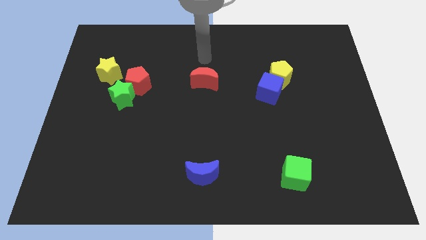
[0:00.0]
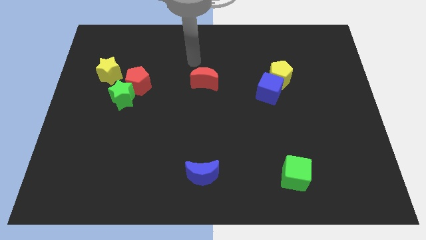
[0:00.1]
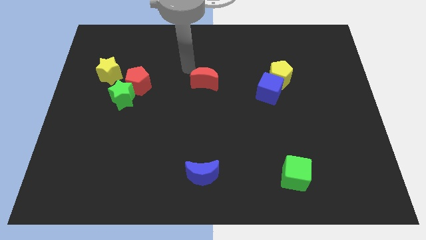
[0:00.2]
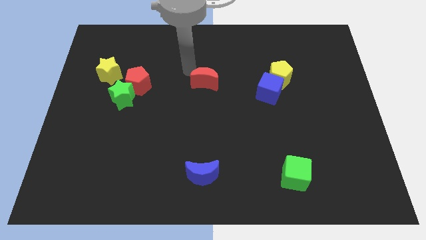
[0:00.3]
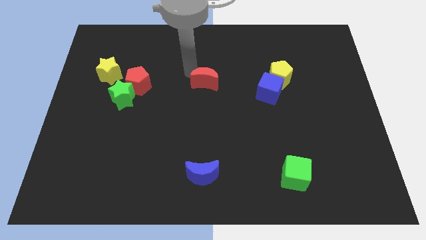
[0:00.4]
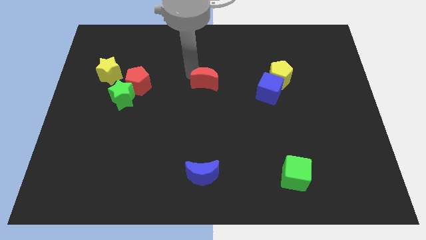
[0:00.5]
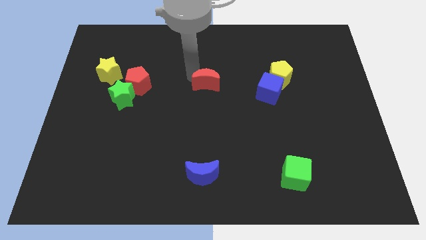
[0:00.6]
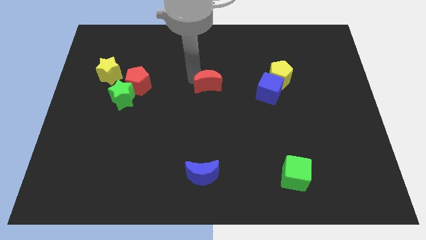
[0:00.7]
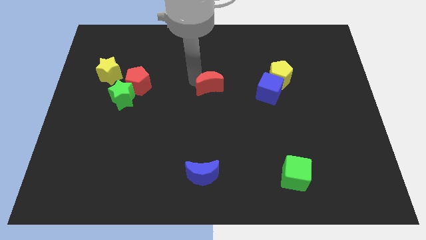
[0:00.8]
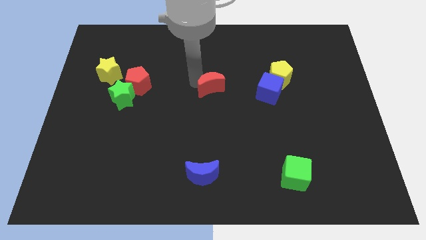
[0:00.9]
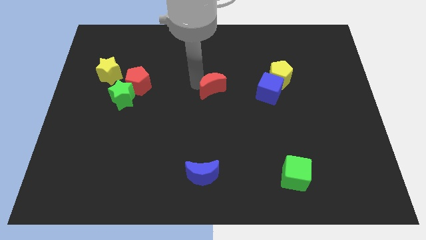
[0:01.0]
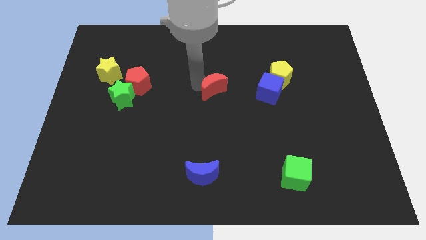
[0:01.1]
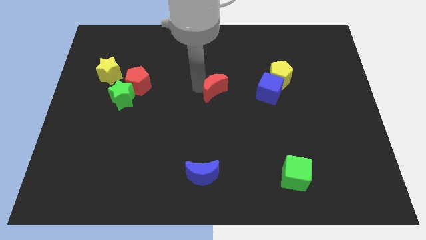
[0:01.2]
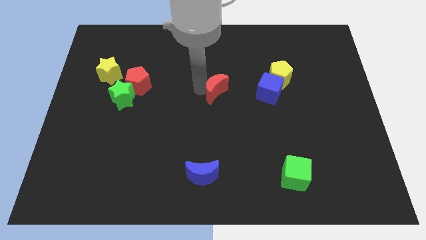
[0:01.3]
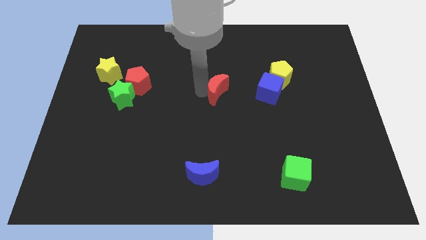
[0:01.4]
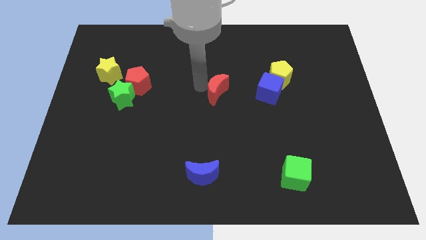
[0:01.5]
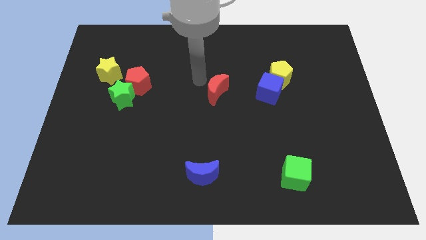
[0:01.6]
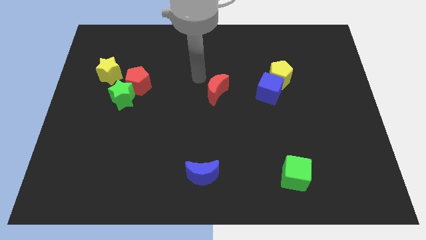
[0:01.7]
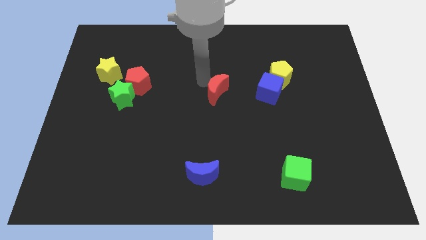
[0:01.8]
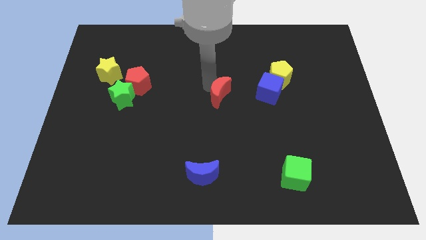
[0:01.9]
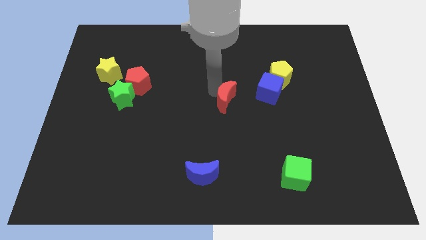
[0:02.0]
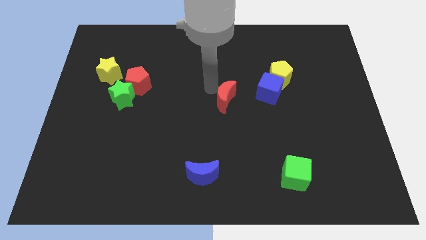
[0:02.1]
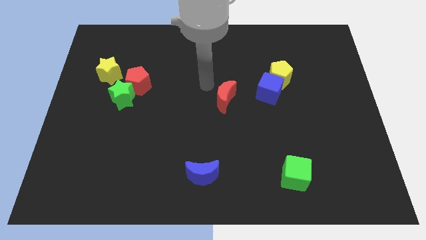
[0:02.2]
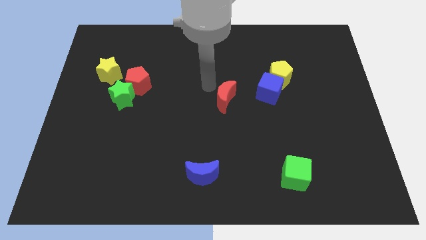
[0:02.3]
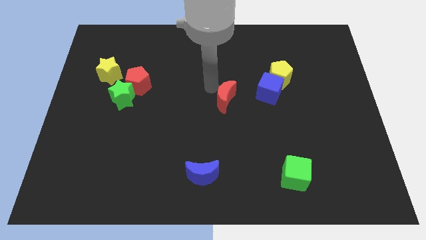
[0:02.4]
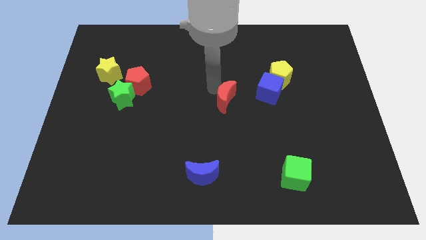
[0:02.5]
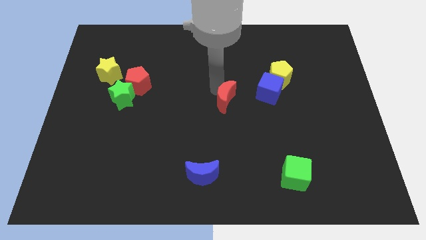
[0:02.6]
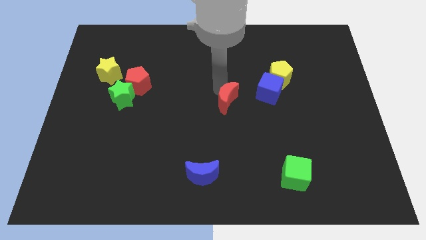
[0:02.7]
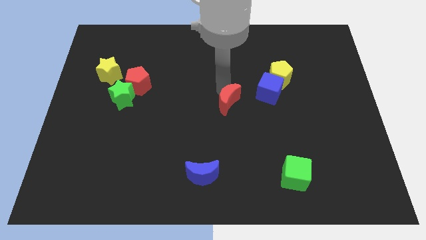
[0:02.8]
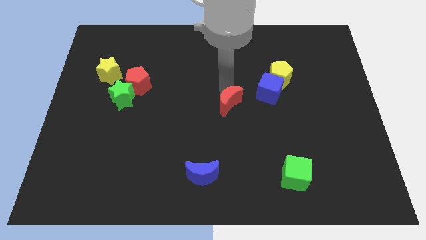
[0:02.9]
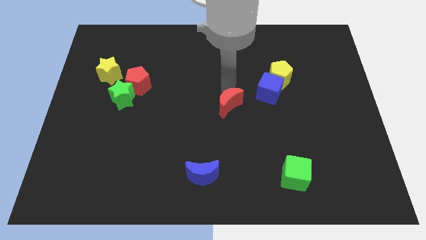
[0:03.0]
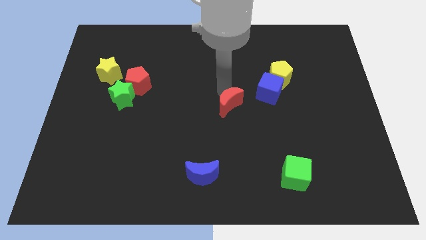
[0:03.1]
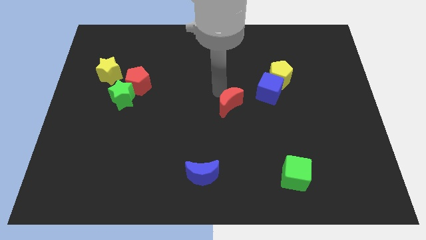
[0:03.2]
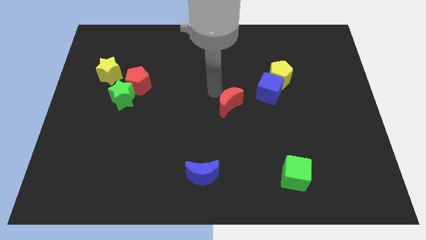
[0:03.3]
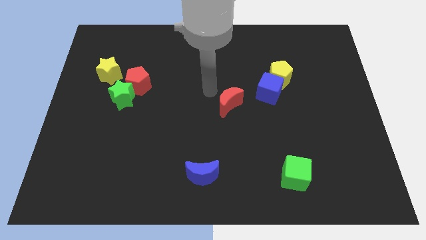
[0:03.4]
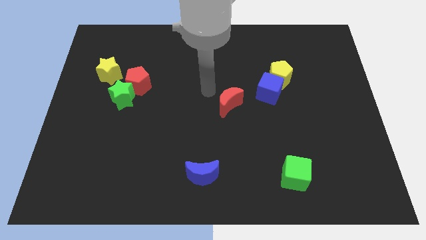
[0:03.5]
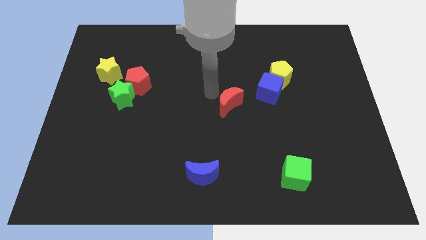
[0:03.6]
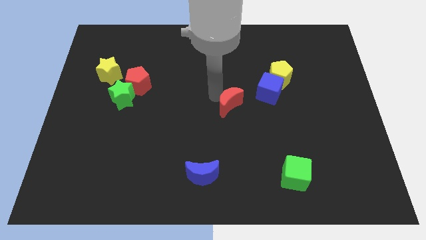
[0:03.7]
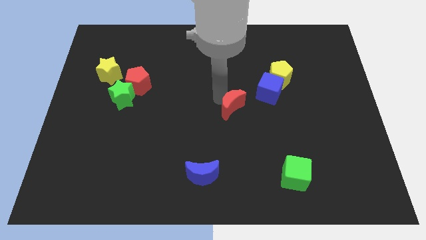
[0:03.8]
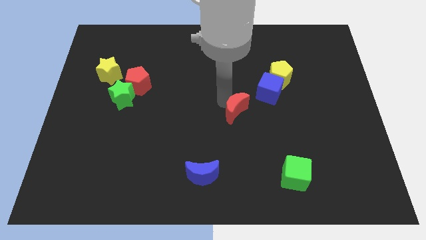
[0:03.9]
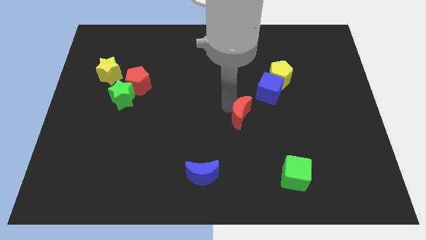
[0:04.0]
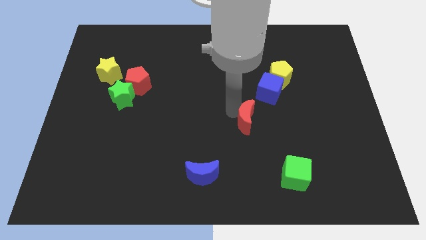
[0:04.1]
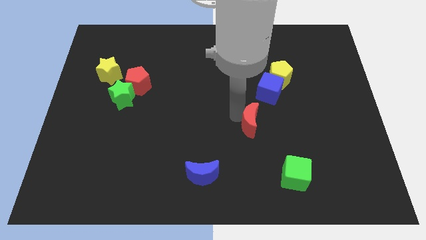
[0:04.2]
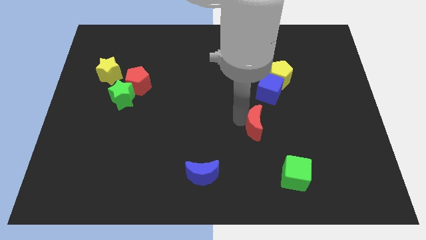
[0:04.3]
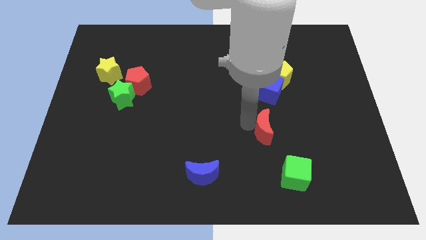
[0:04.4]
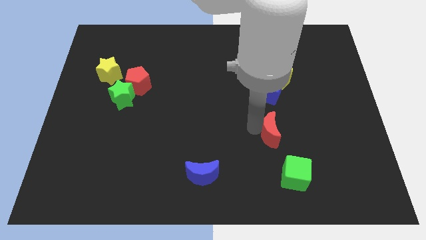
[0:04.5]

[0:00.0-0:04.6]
move the red moon to the top side of the green cube

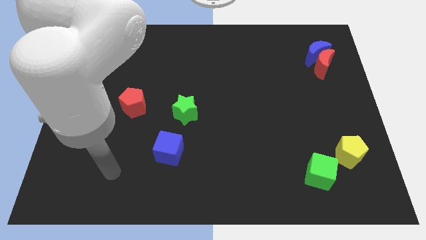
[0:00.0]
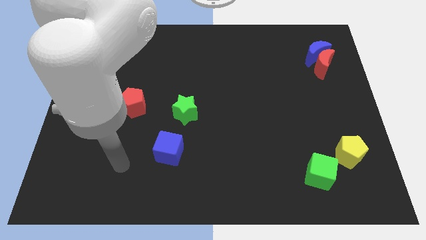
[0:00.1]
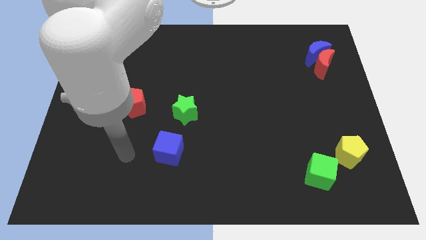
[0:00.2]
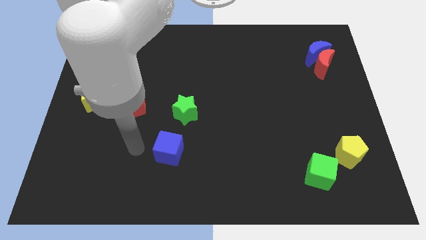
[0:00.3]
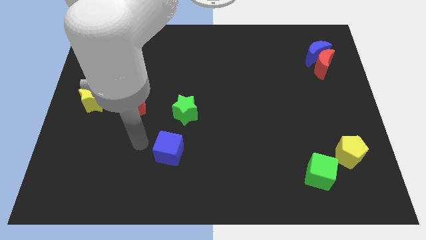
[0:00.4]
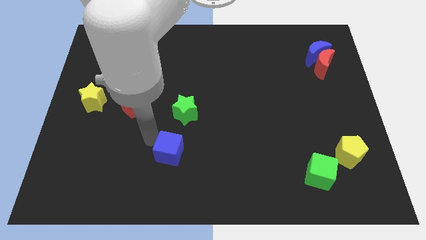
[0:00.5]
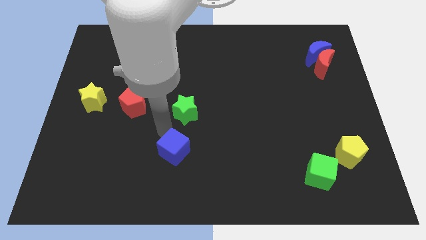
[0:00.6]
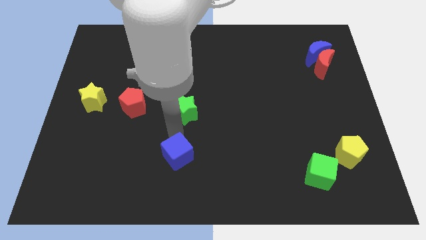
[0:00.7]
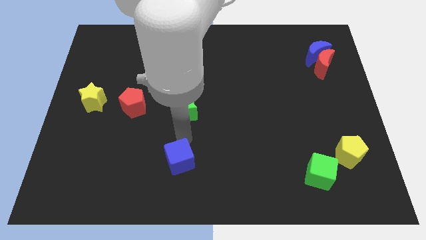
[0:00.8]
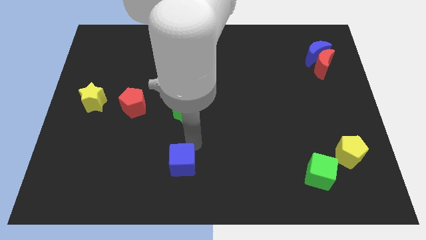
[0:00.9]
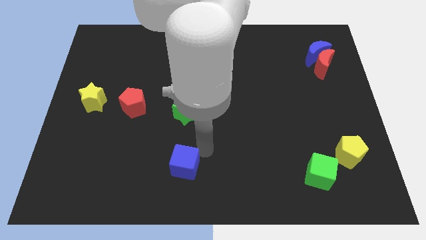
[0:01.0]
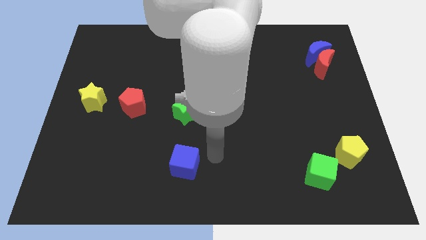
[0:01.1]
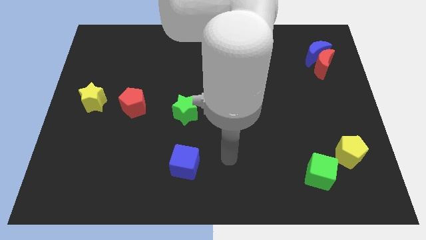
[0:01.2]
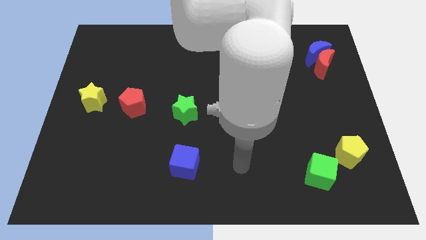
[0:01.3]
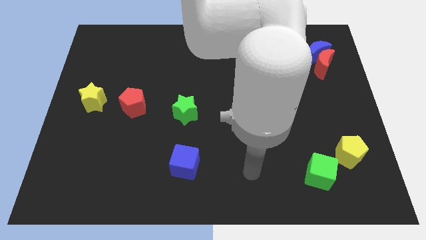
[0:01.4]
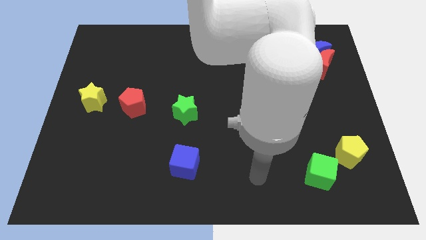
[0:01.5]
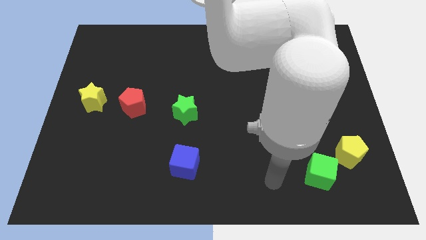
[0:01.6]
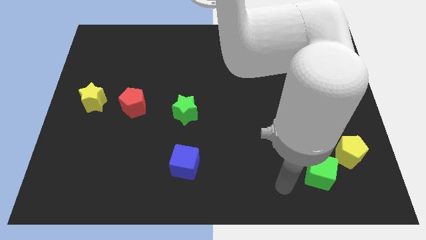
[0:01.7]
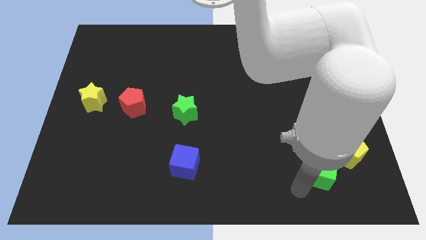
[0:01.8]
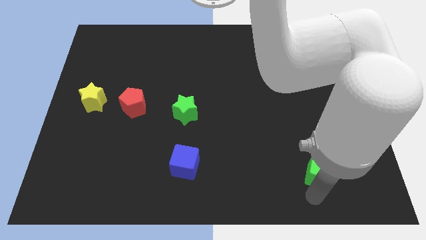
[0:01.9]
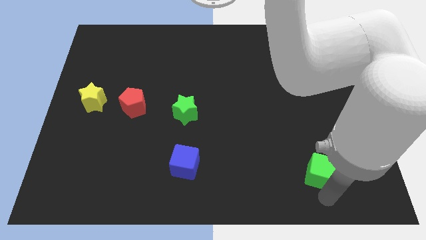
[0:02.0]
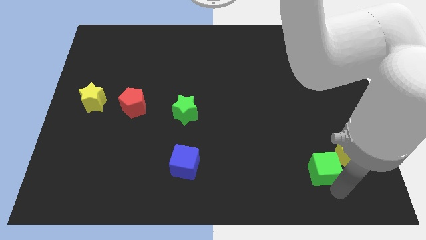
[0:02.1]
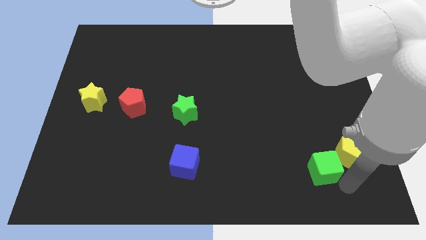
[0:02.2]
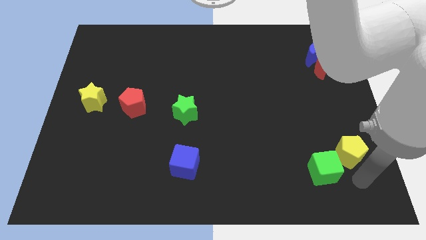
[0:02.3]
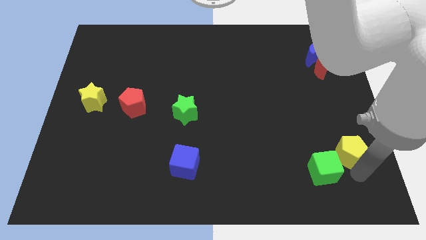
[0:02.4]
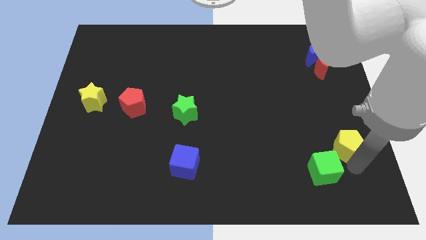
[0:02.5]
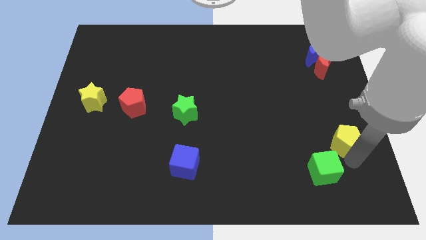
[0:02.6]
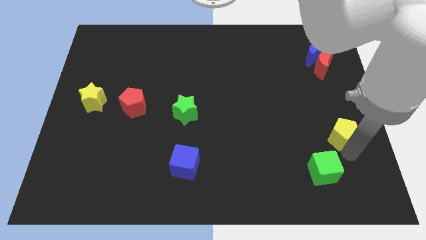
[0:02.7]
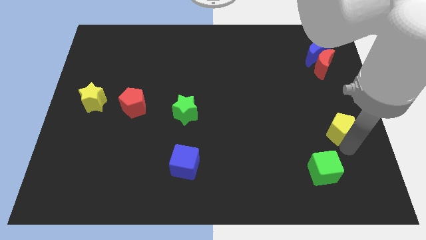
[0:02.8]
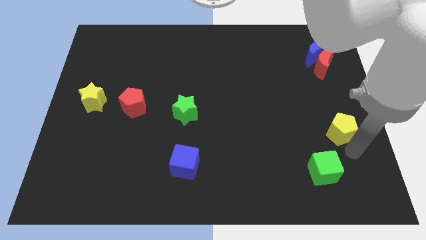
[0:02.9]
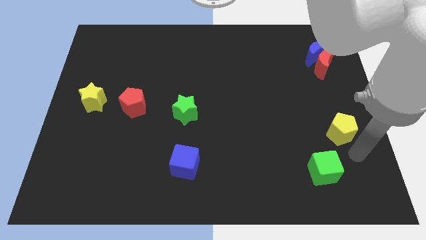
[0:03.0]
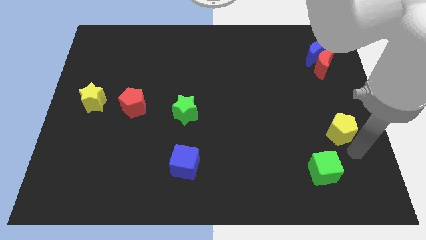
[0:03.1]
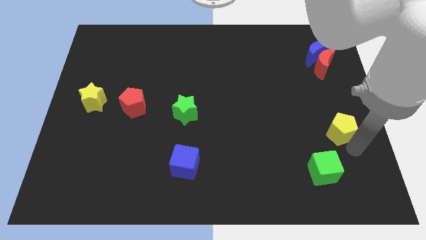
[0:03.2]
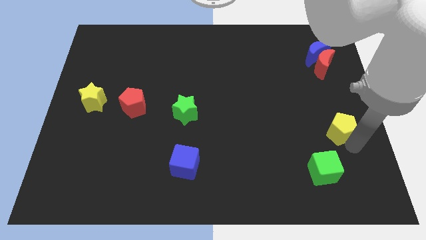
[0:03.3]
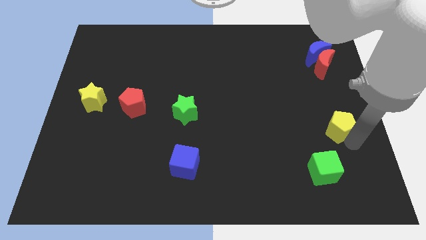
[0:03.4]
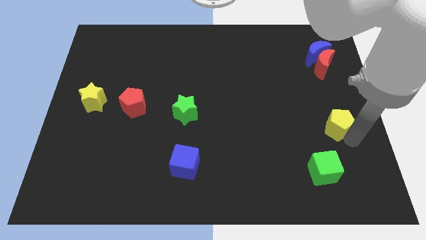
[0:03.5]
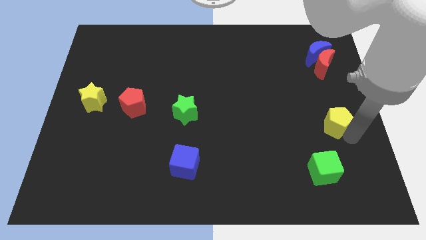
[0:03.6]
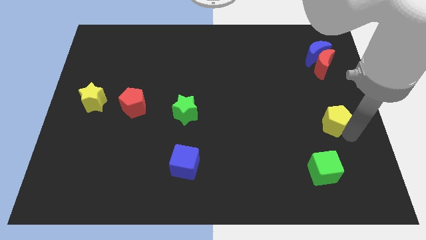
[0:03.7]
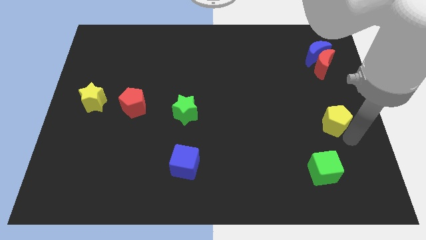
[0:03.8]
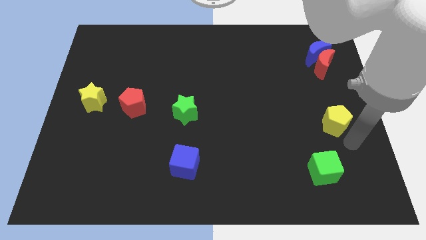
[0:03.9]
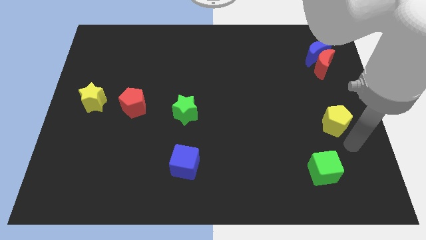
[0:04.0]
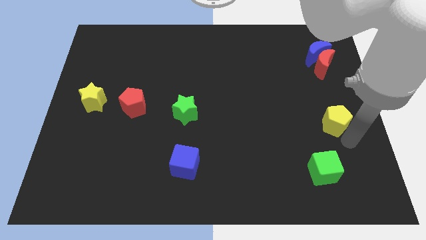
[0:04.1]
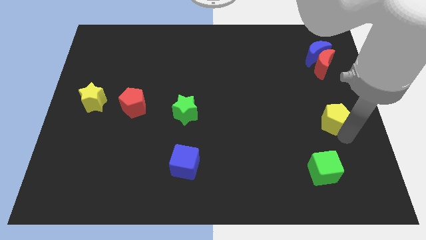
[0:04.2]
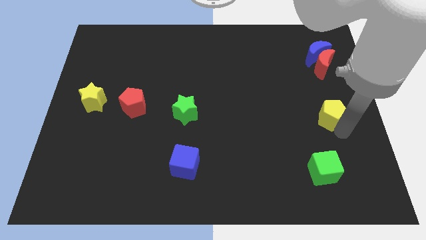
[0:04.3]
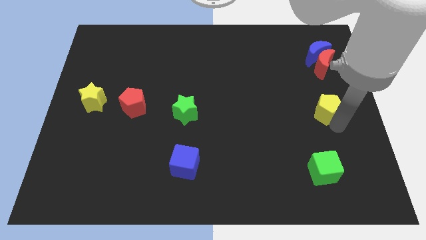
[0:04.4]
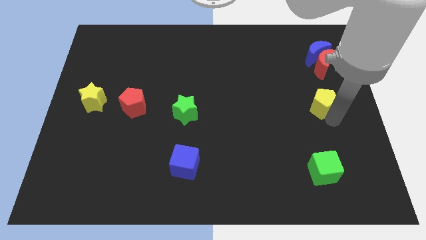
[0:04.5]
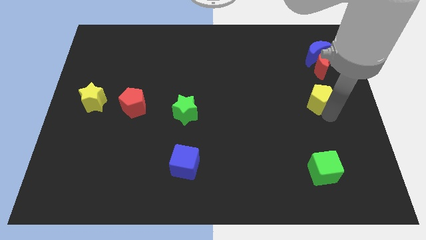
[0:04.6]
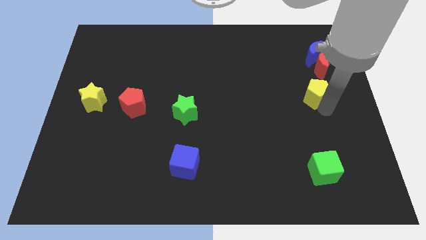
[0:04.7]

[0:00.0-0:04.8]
push the yellow pentagon to the bottom left of the red moon
